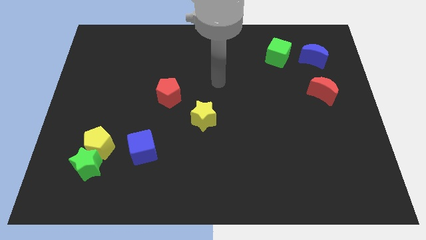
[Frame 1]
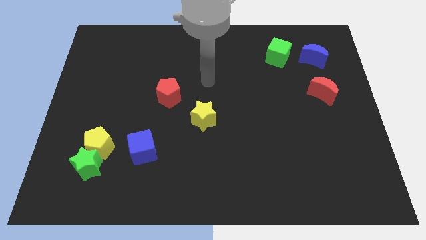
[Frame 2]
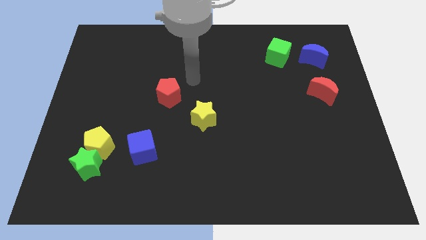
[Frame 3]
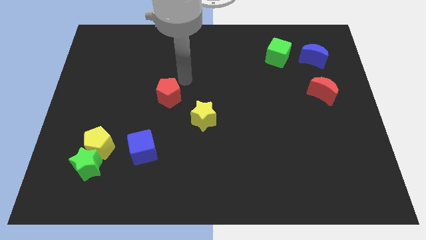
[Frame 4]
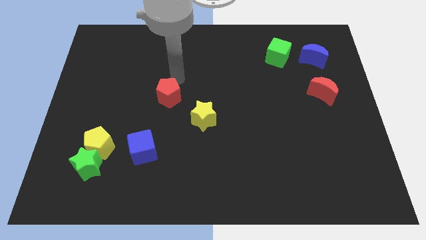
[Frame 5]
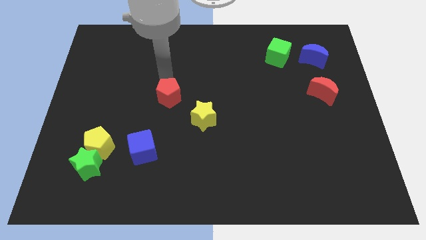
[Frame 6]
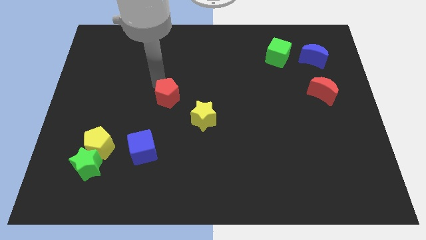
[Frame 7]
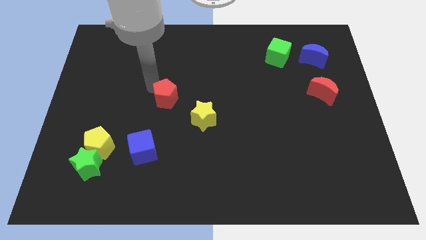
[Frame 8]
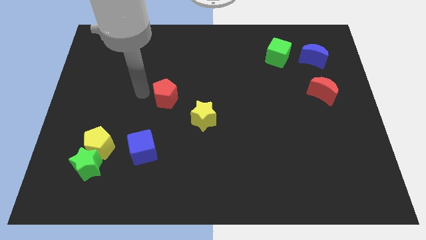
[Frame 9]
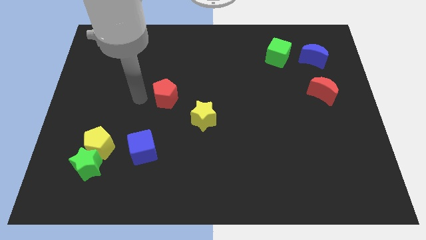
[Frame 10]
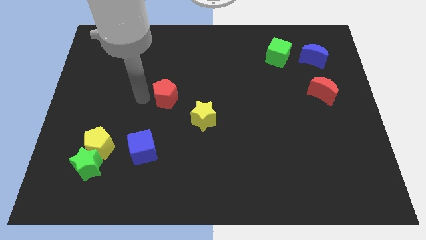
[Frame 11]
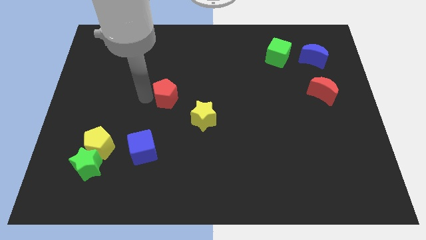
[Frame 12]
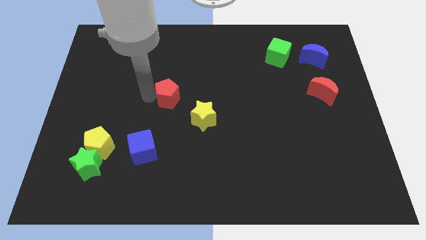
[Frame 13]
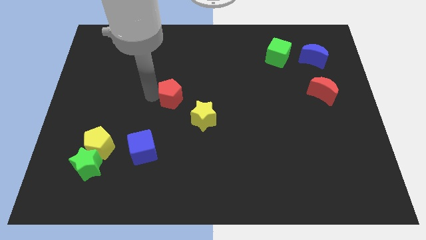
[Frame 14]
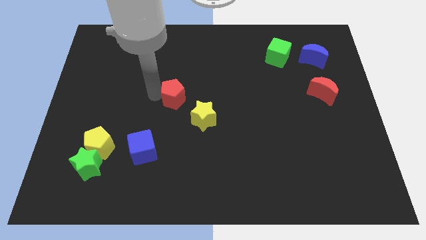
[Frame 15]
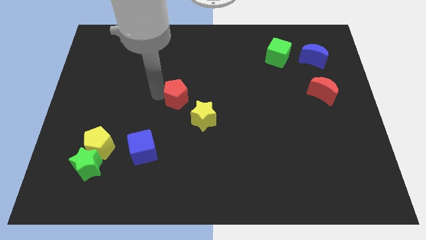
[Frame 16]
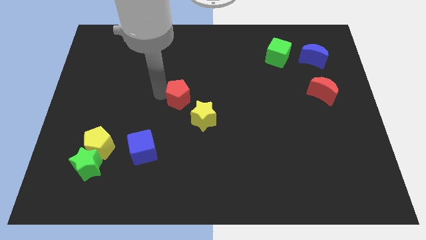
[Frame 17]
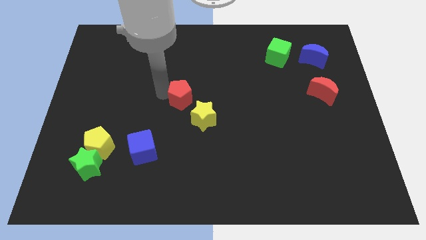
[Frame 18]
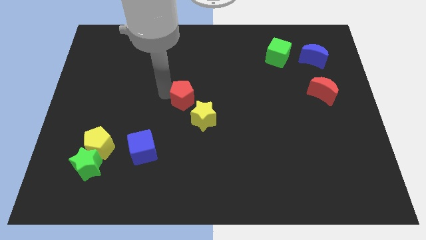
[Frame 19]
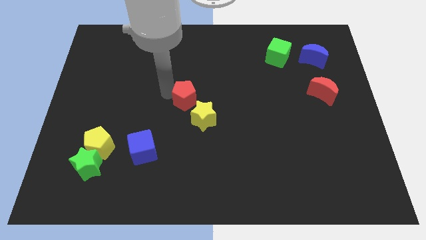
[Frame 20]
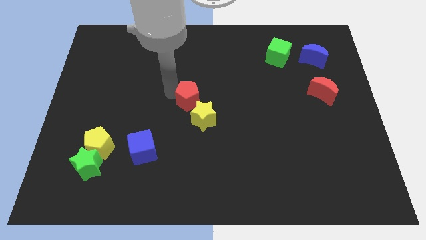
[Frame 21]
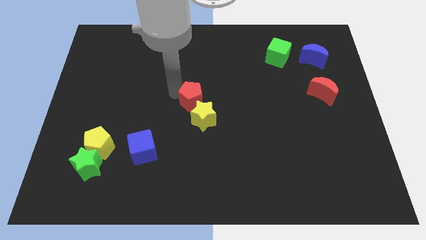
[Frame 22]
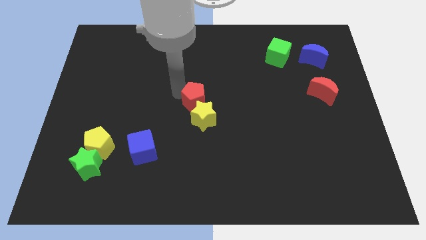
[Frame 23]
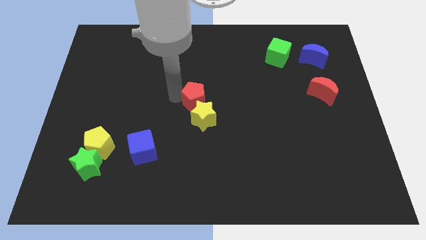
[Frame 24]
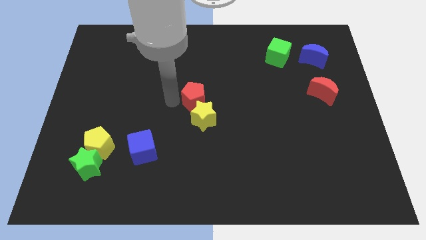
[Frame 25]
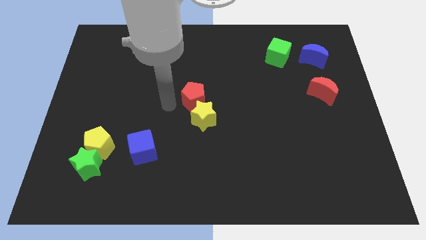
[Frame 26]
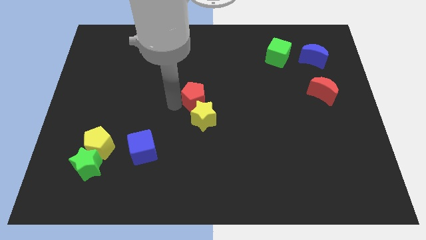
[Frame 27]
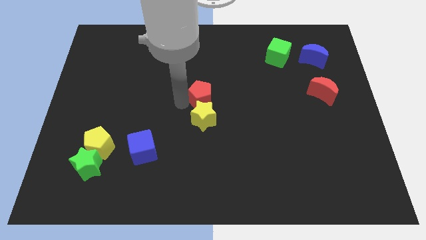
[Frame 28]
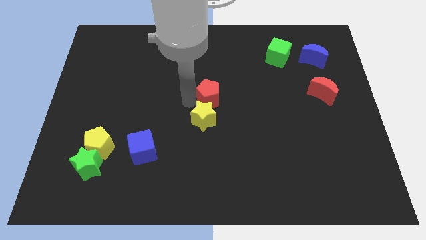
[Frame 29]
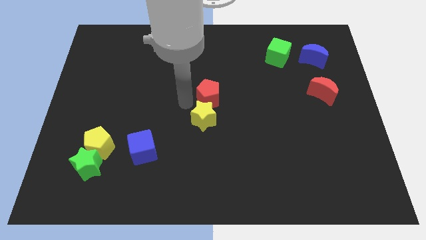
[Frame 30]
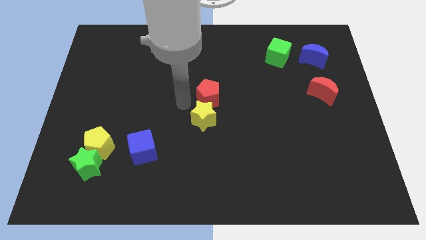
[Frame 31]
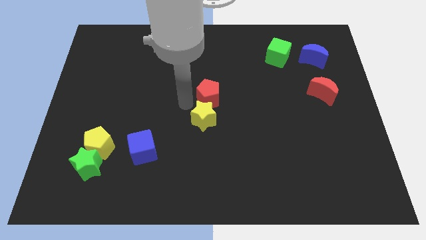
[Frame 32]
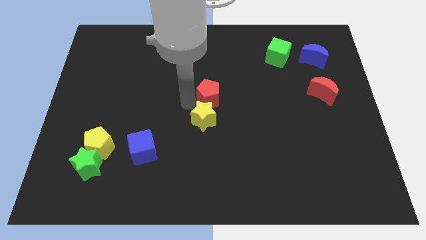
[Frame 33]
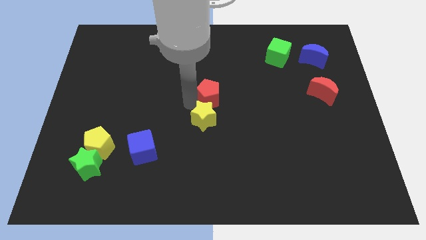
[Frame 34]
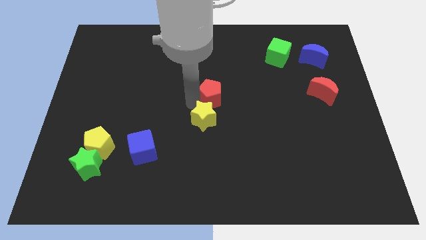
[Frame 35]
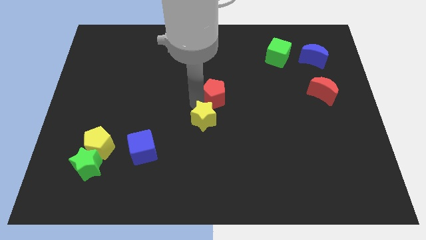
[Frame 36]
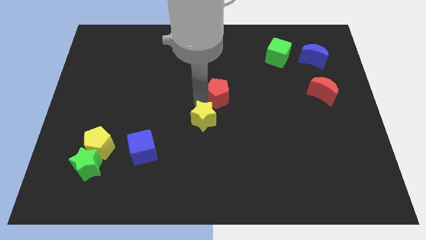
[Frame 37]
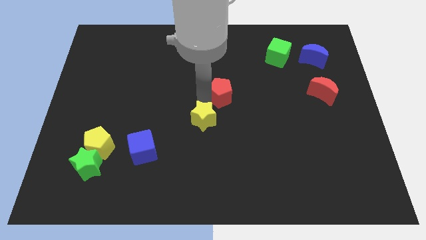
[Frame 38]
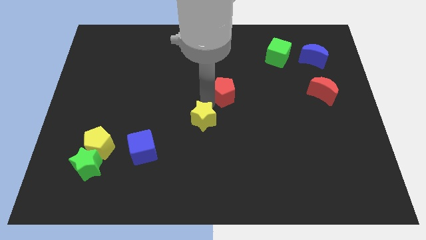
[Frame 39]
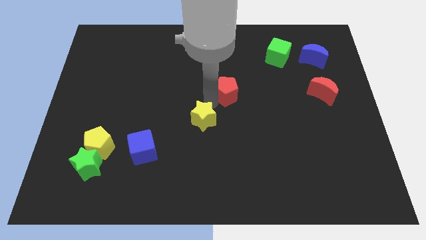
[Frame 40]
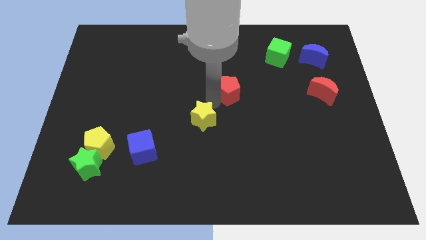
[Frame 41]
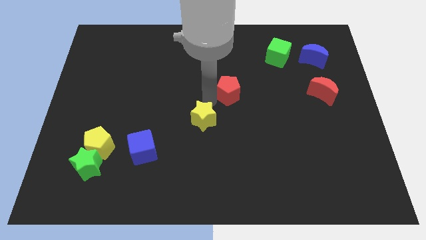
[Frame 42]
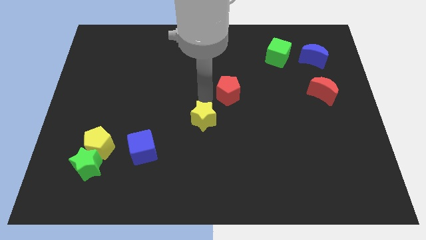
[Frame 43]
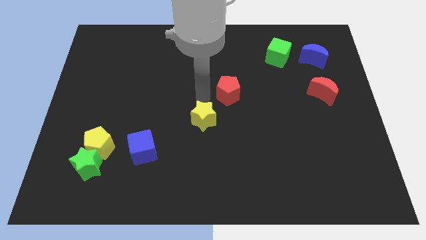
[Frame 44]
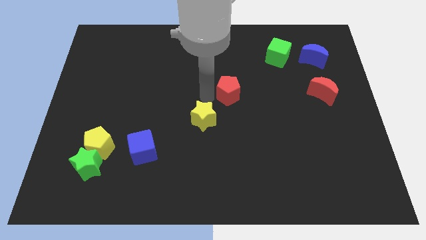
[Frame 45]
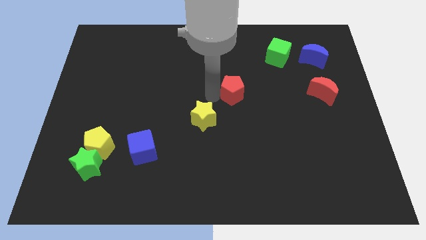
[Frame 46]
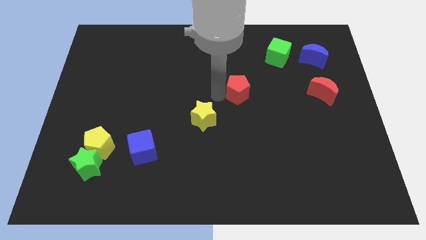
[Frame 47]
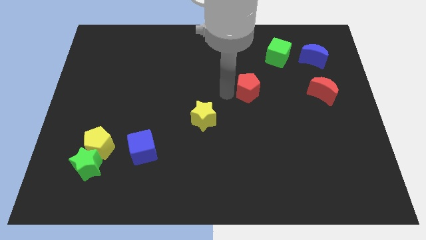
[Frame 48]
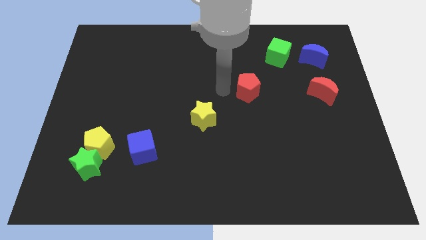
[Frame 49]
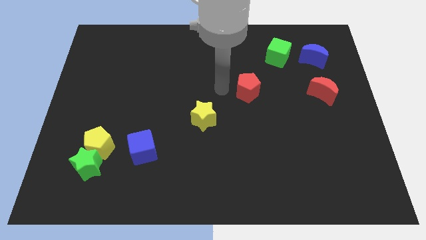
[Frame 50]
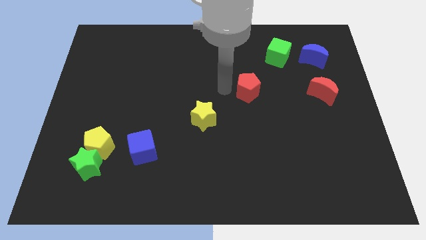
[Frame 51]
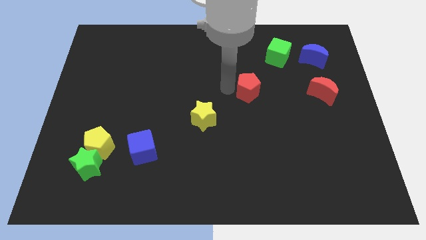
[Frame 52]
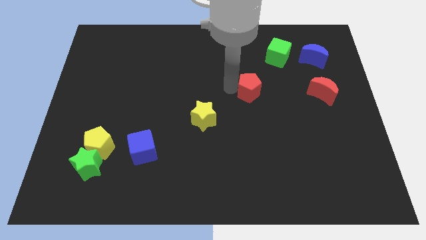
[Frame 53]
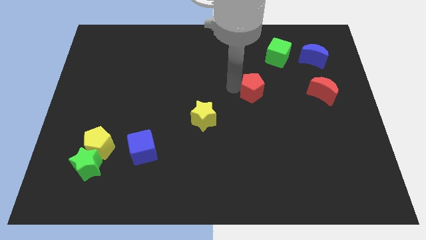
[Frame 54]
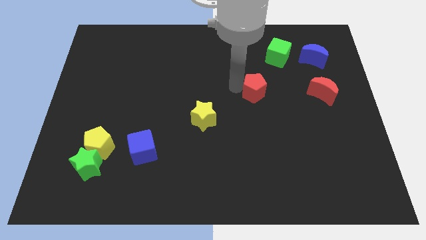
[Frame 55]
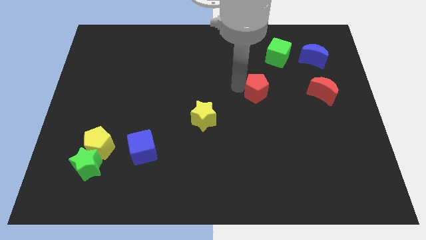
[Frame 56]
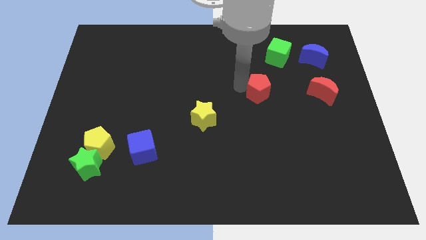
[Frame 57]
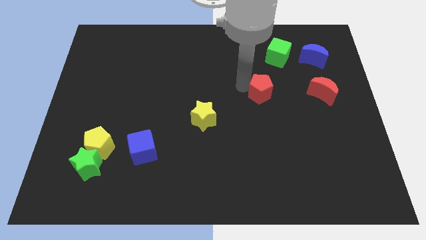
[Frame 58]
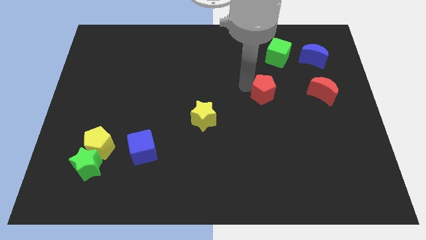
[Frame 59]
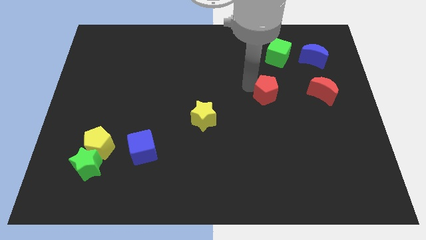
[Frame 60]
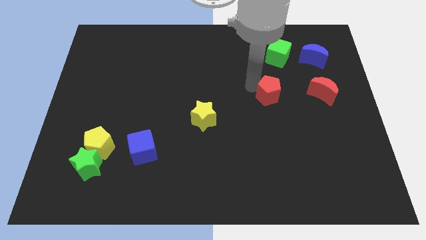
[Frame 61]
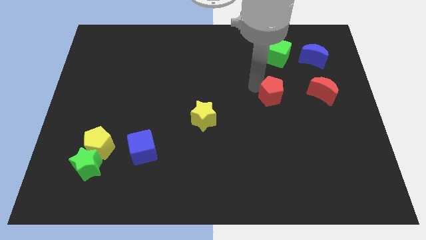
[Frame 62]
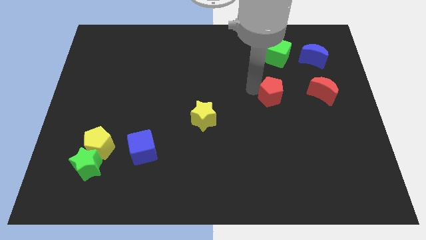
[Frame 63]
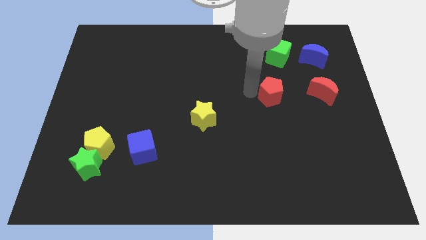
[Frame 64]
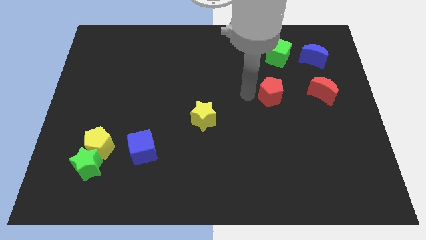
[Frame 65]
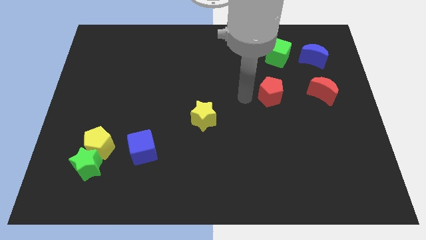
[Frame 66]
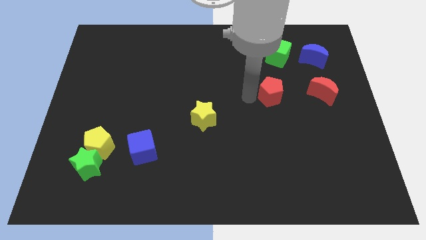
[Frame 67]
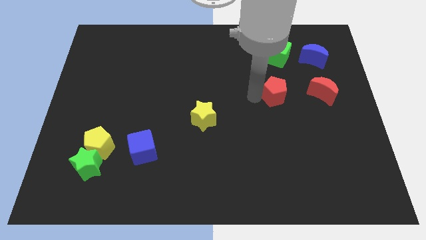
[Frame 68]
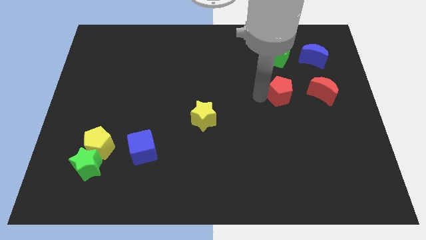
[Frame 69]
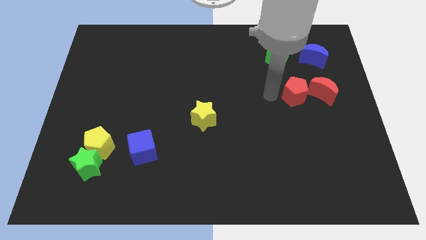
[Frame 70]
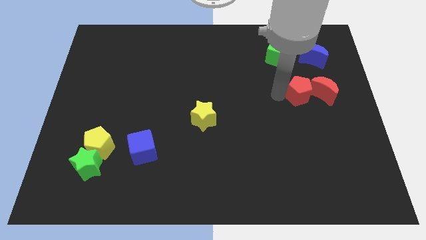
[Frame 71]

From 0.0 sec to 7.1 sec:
move the red pentagon to the red moon

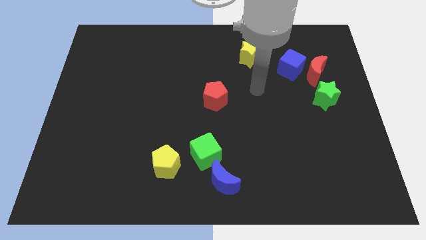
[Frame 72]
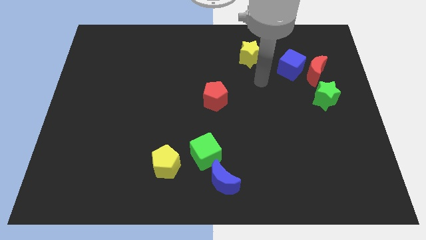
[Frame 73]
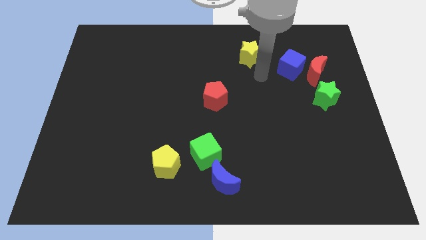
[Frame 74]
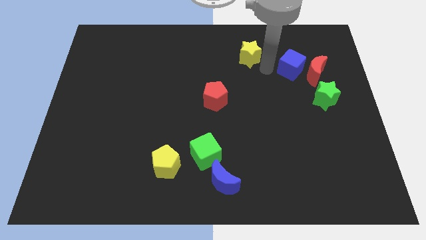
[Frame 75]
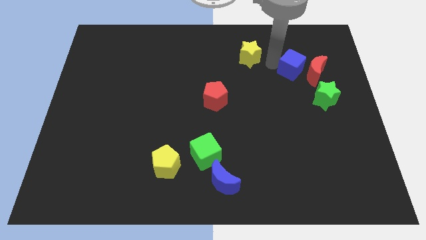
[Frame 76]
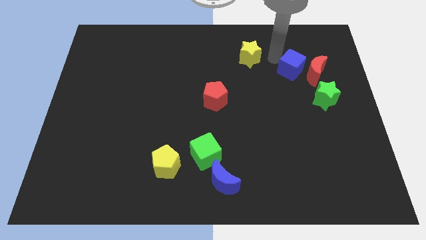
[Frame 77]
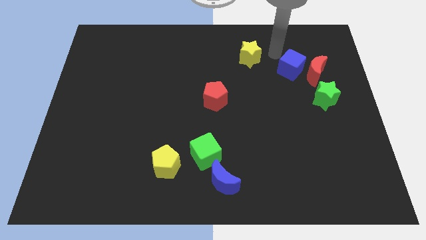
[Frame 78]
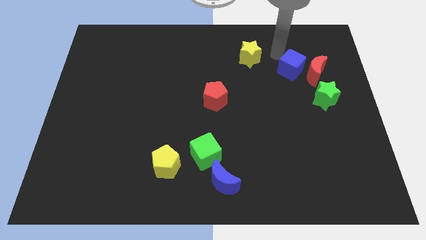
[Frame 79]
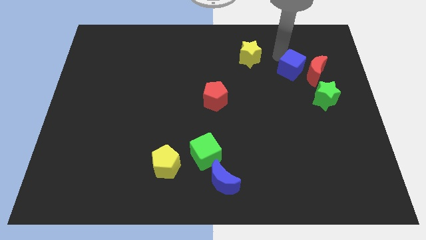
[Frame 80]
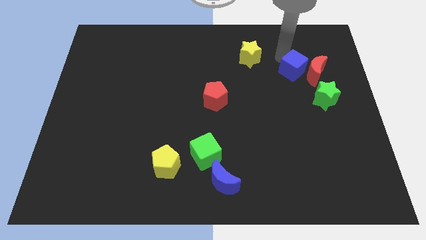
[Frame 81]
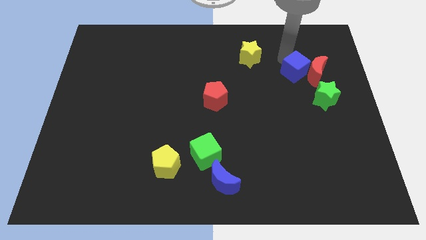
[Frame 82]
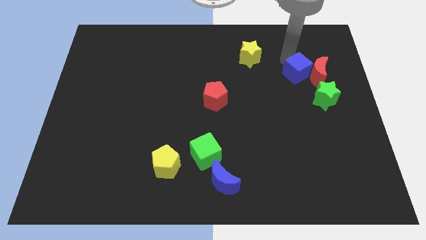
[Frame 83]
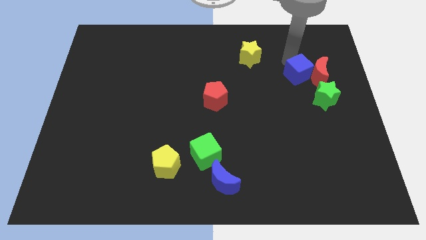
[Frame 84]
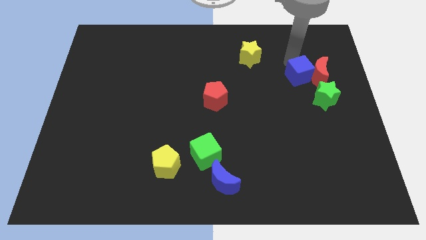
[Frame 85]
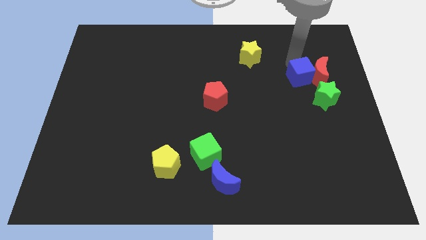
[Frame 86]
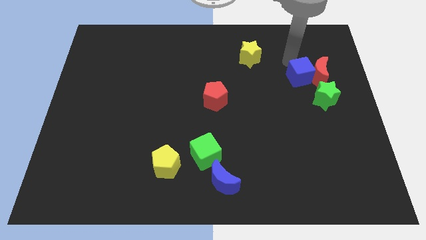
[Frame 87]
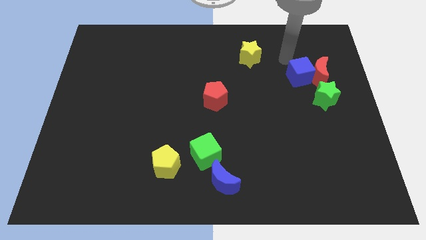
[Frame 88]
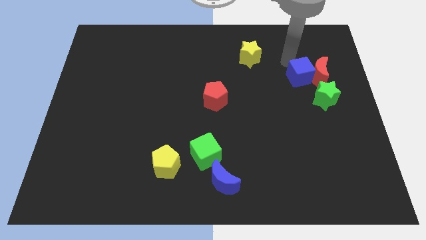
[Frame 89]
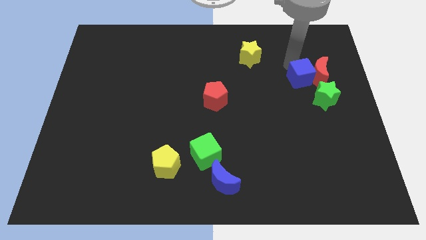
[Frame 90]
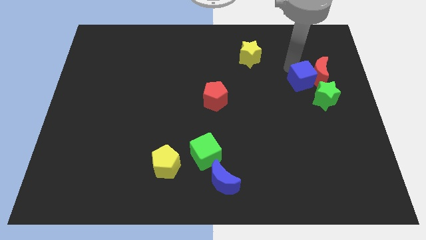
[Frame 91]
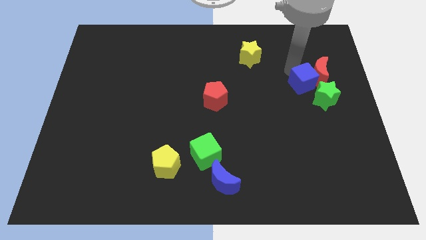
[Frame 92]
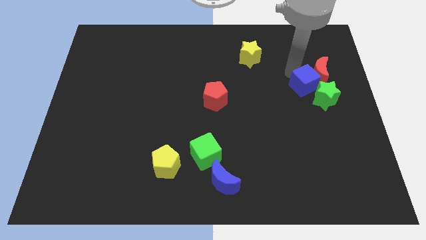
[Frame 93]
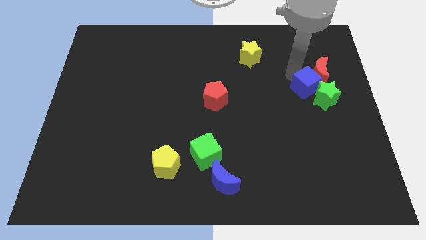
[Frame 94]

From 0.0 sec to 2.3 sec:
move the blue cube close to the green star
